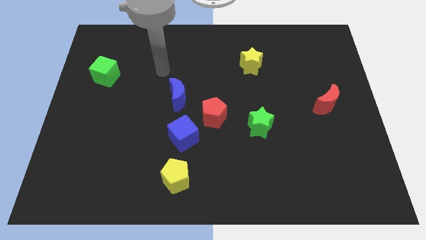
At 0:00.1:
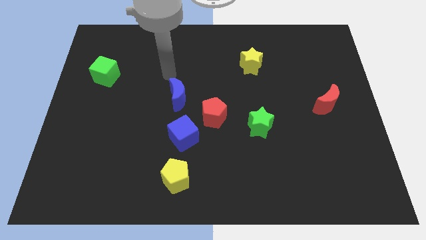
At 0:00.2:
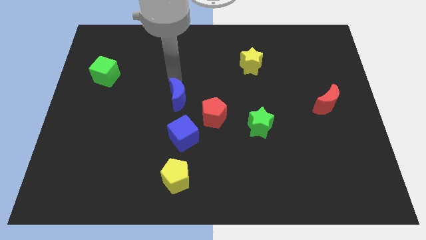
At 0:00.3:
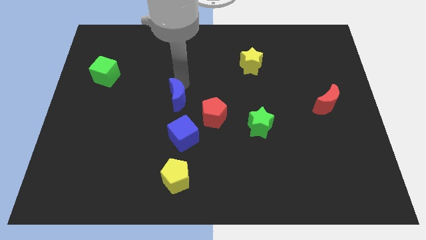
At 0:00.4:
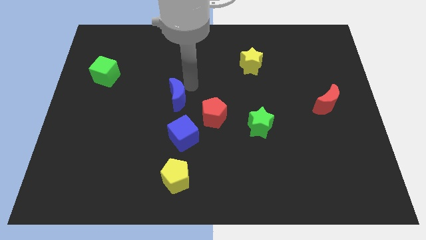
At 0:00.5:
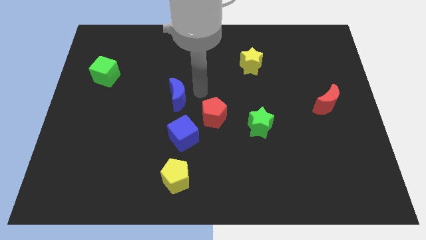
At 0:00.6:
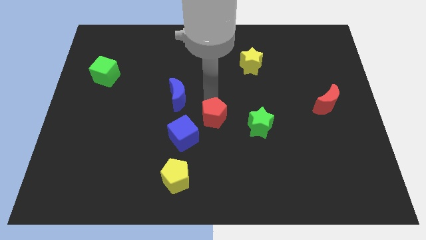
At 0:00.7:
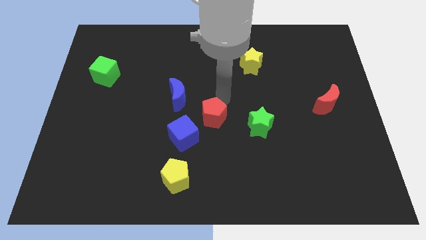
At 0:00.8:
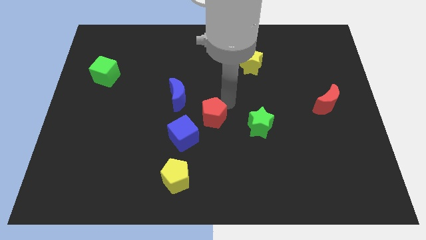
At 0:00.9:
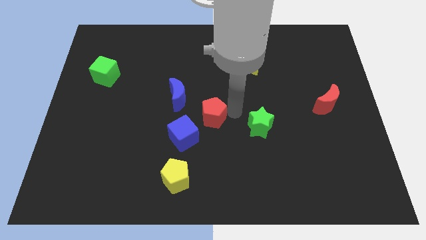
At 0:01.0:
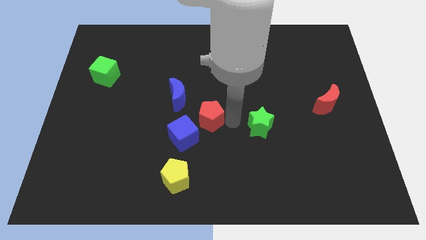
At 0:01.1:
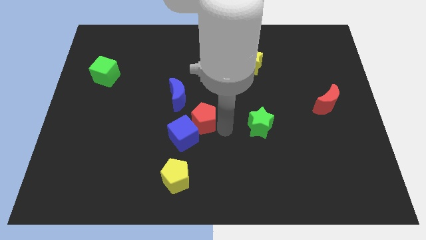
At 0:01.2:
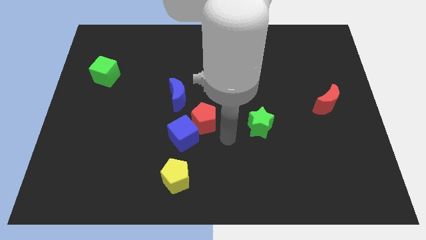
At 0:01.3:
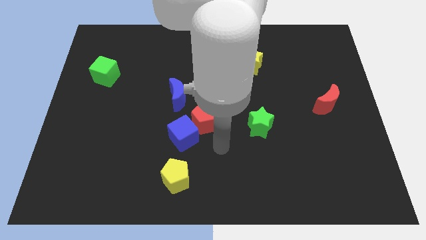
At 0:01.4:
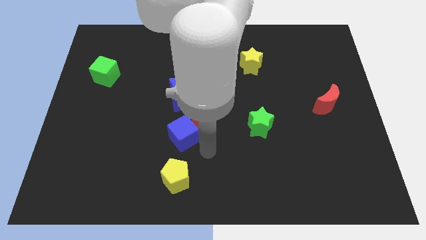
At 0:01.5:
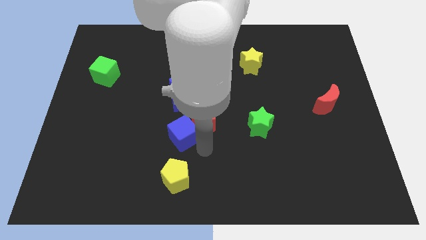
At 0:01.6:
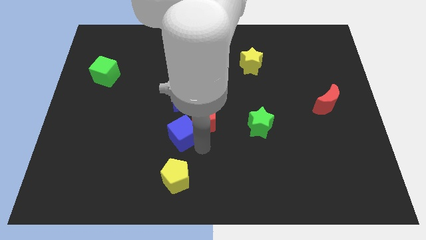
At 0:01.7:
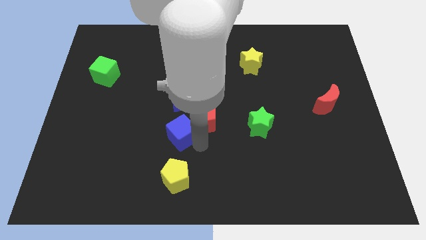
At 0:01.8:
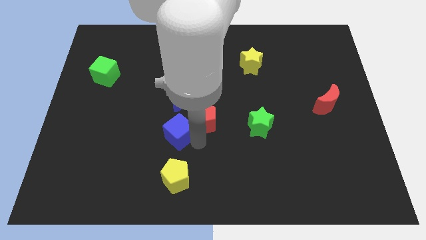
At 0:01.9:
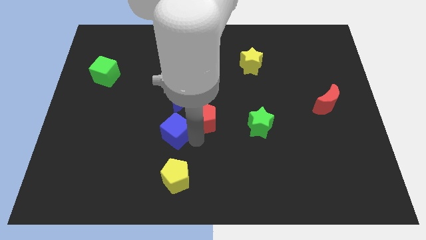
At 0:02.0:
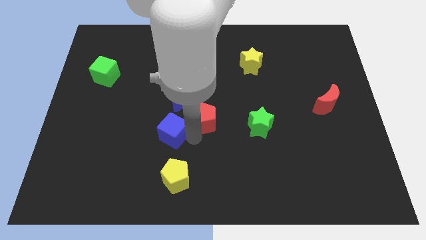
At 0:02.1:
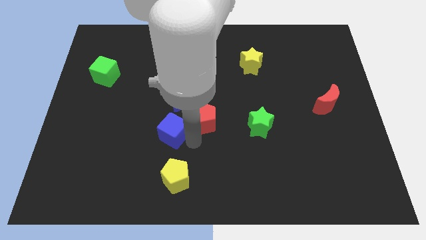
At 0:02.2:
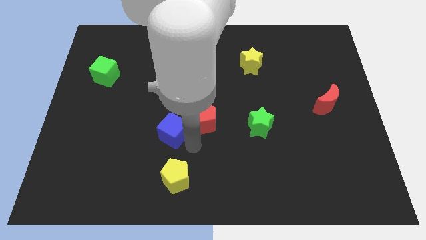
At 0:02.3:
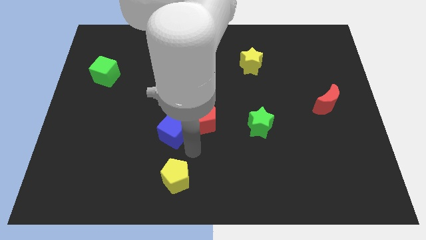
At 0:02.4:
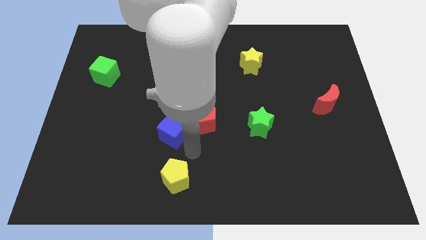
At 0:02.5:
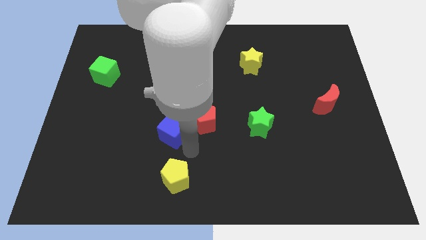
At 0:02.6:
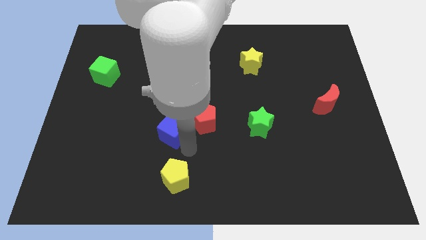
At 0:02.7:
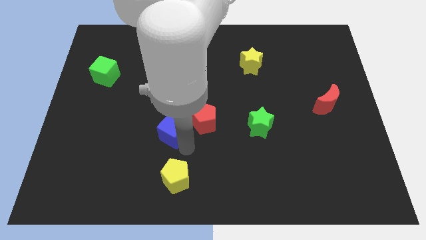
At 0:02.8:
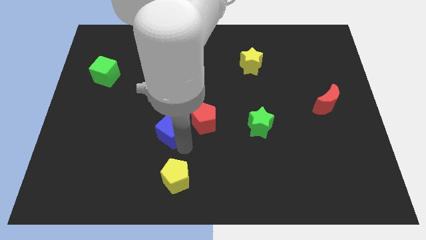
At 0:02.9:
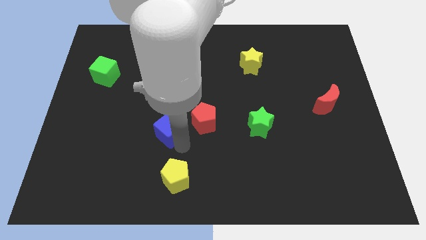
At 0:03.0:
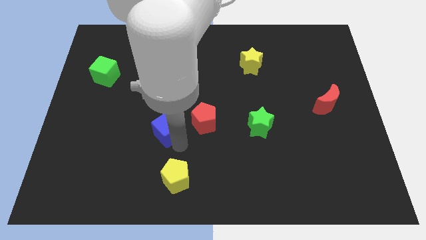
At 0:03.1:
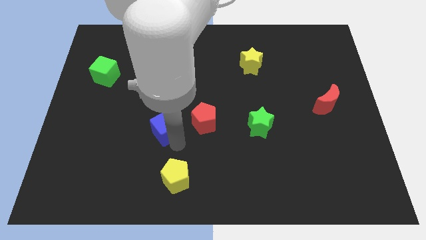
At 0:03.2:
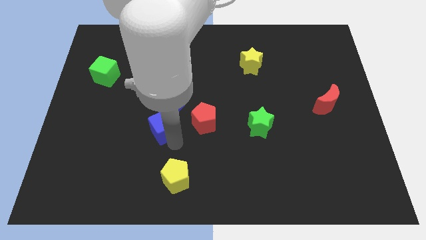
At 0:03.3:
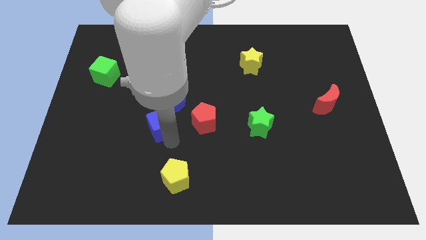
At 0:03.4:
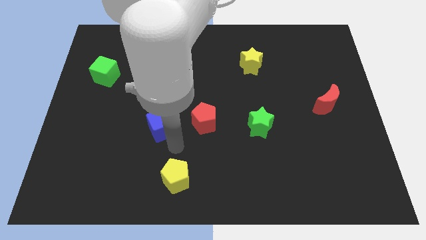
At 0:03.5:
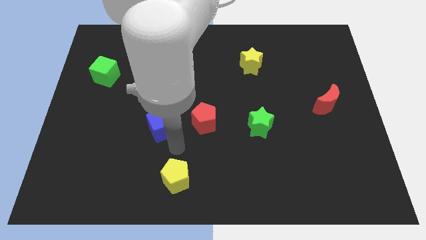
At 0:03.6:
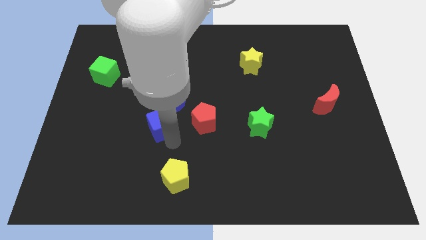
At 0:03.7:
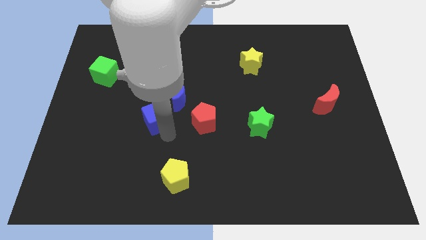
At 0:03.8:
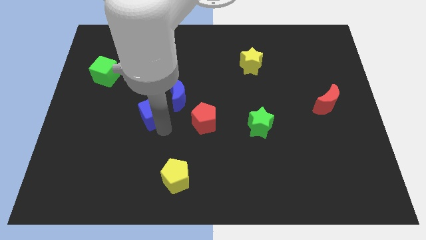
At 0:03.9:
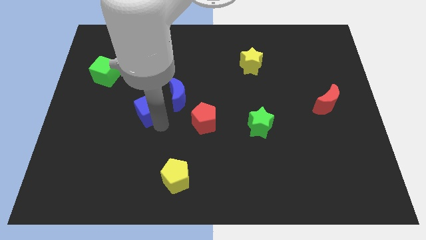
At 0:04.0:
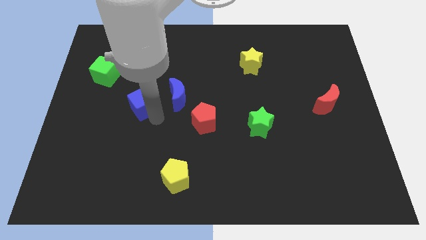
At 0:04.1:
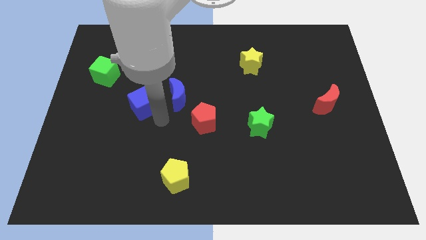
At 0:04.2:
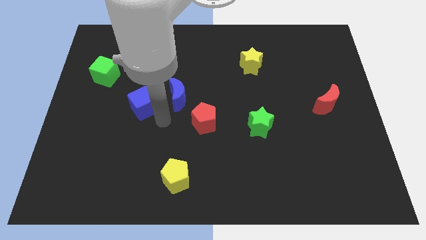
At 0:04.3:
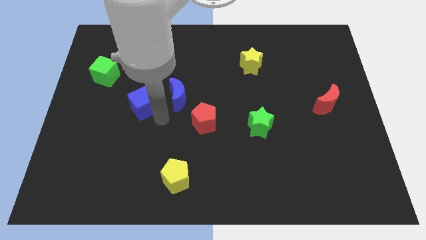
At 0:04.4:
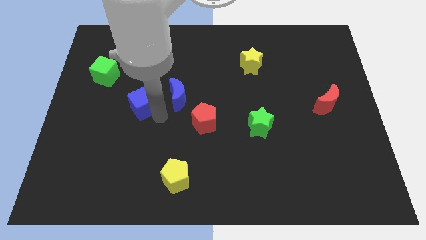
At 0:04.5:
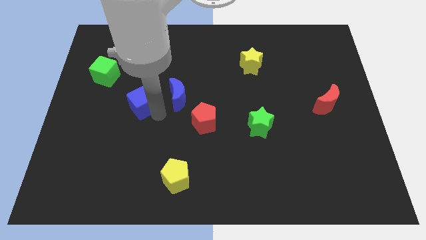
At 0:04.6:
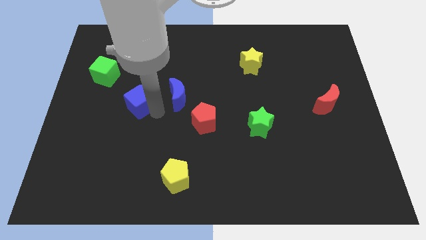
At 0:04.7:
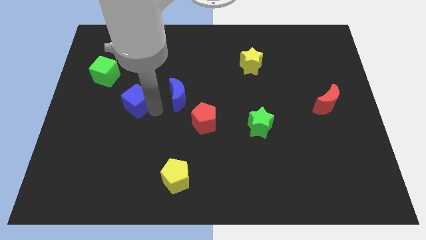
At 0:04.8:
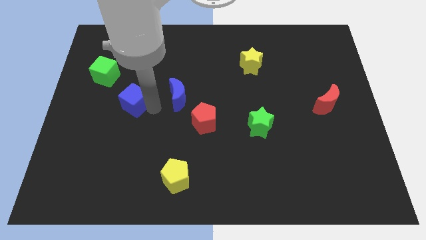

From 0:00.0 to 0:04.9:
slide the blue cube to the bottom right side of the green cube

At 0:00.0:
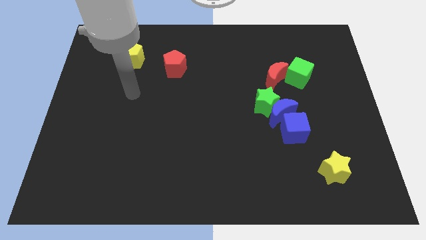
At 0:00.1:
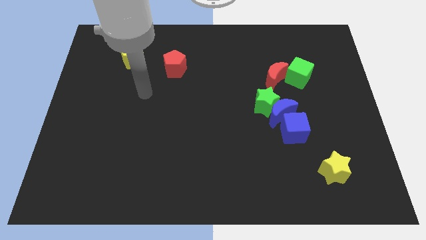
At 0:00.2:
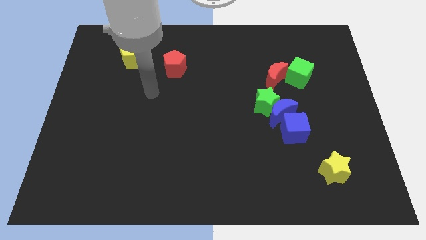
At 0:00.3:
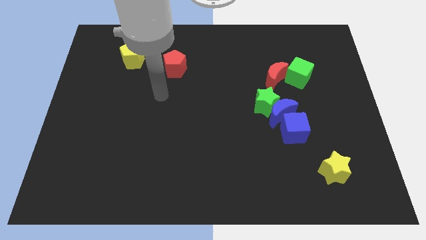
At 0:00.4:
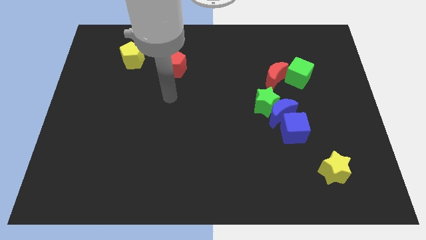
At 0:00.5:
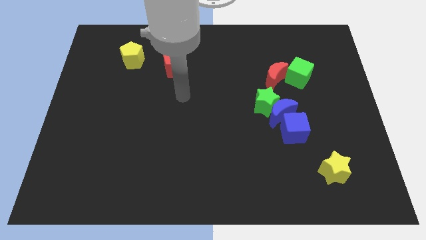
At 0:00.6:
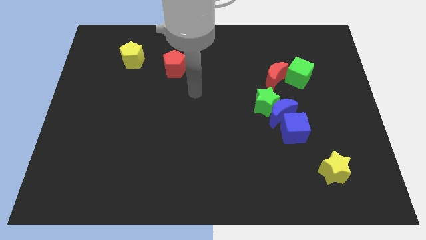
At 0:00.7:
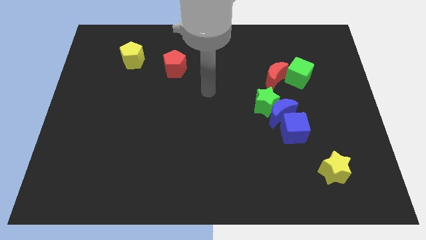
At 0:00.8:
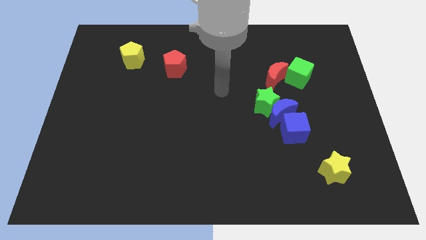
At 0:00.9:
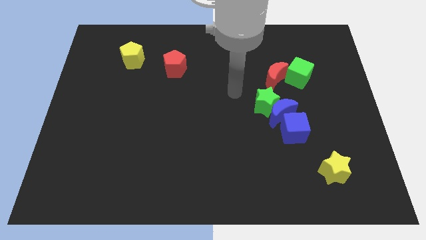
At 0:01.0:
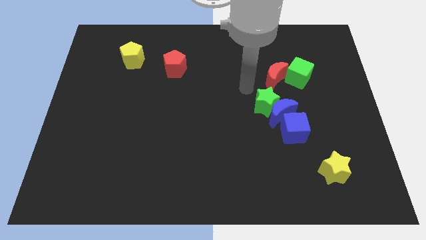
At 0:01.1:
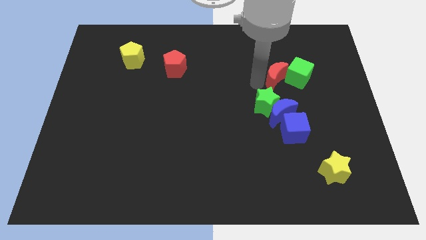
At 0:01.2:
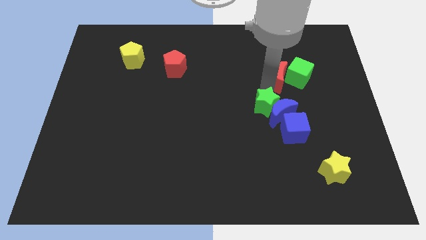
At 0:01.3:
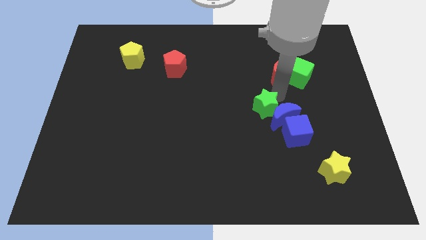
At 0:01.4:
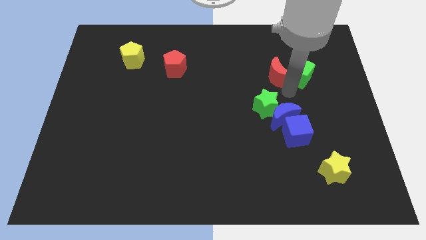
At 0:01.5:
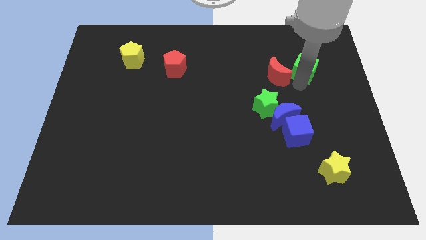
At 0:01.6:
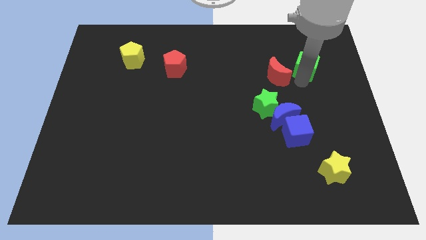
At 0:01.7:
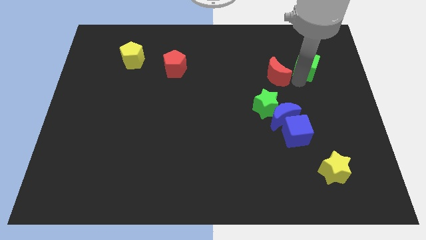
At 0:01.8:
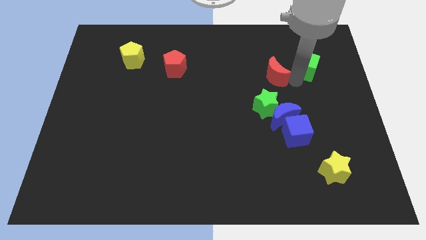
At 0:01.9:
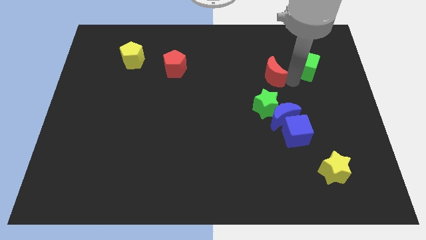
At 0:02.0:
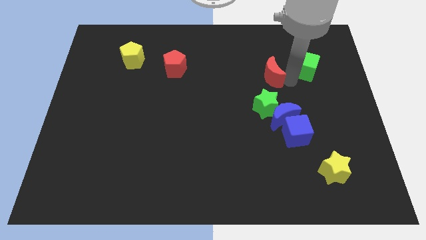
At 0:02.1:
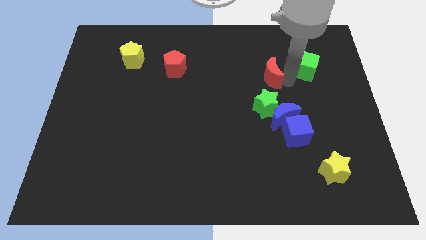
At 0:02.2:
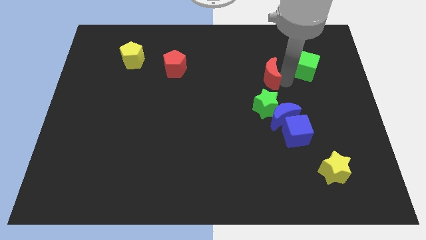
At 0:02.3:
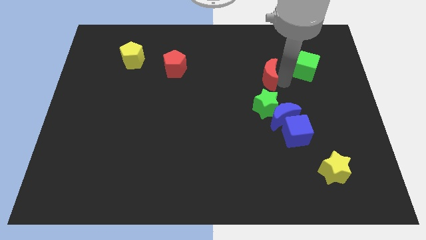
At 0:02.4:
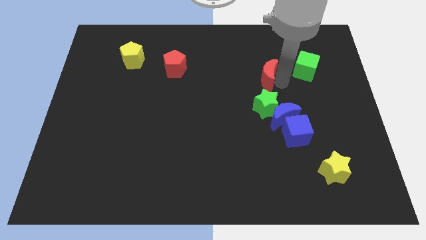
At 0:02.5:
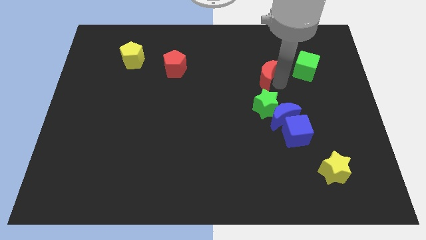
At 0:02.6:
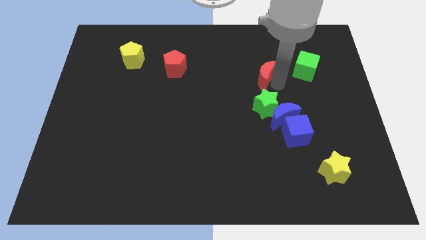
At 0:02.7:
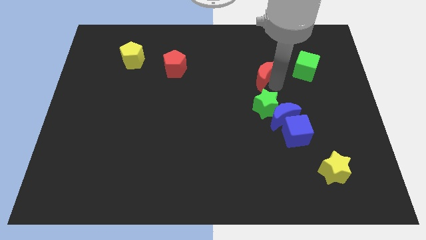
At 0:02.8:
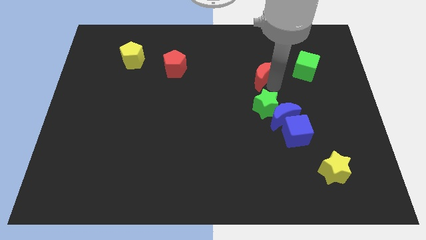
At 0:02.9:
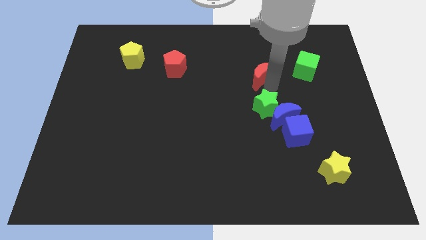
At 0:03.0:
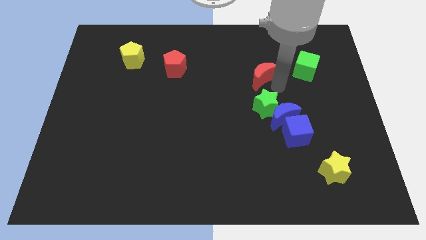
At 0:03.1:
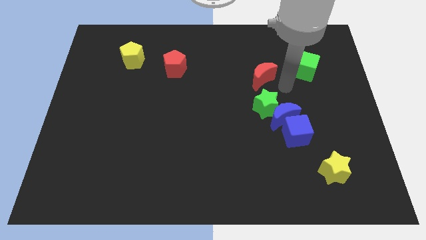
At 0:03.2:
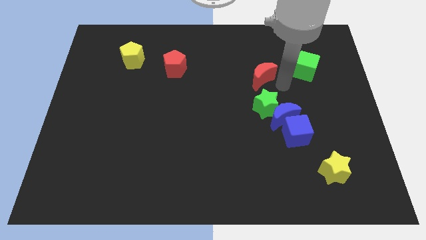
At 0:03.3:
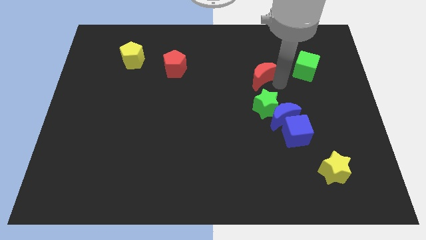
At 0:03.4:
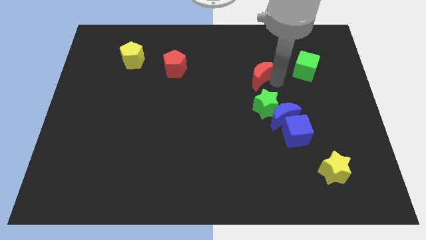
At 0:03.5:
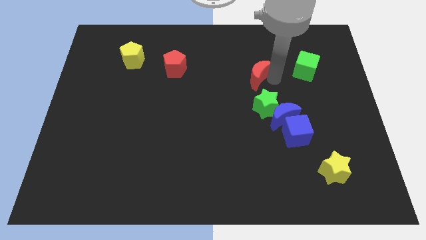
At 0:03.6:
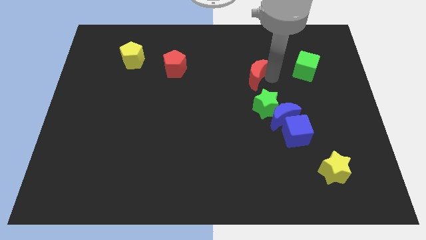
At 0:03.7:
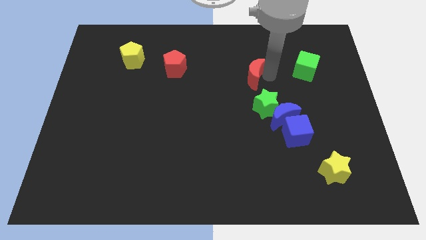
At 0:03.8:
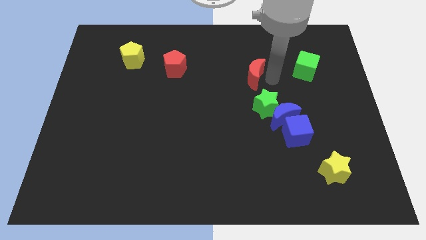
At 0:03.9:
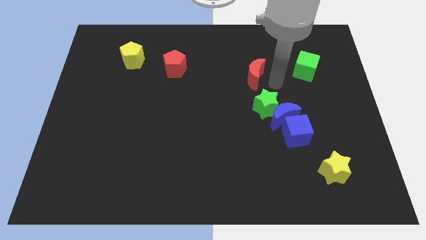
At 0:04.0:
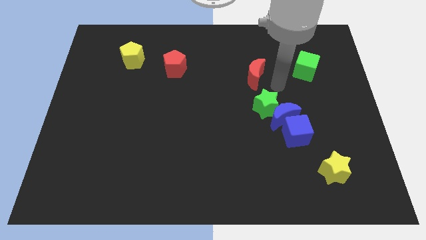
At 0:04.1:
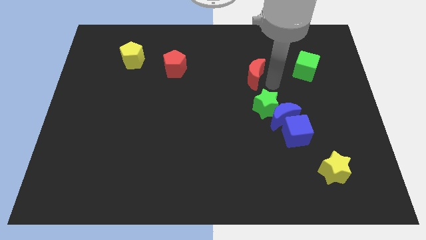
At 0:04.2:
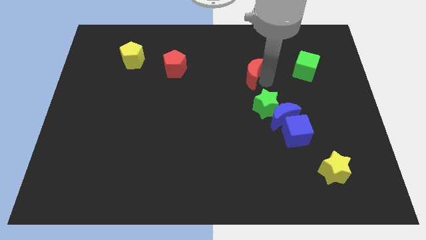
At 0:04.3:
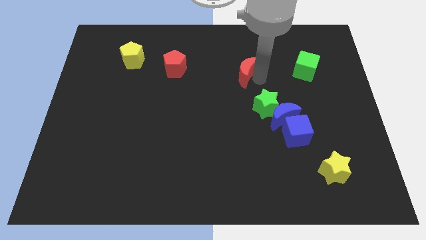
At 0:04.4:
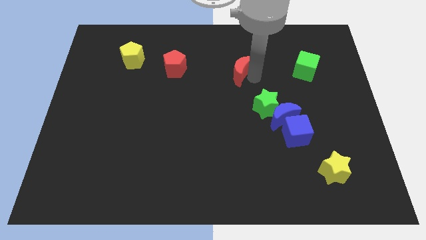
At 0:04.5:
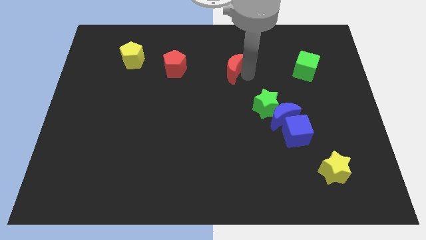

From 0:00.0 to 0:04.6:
put the red moon to the right side of the red pentagon
